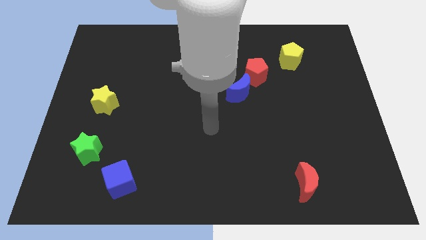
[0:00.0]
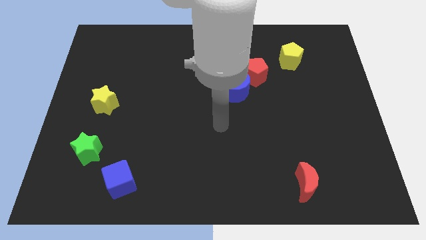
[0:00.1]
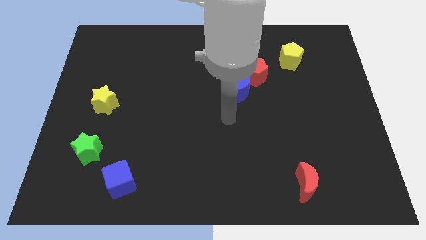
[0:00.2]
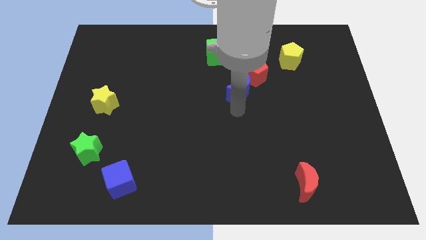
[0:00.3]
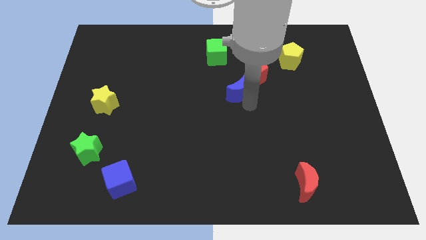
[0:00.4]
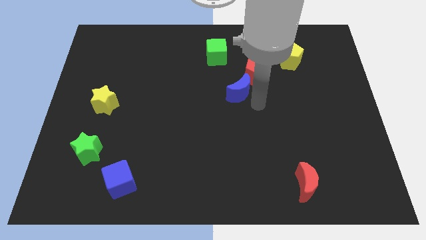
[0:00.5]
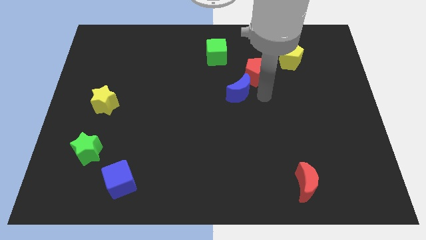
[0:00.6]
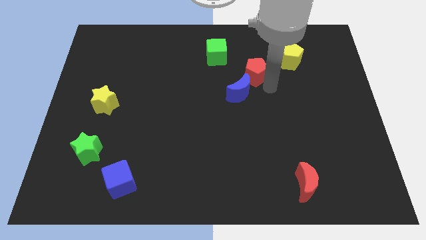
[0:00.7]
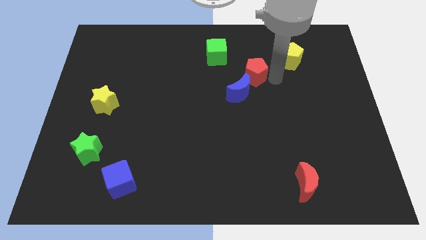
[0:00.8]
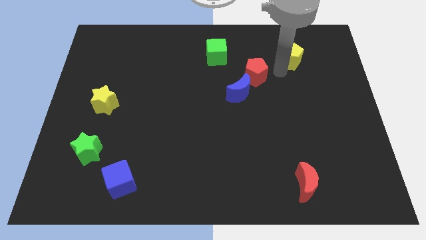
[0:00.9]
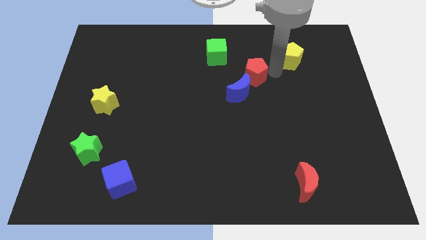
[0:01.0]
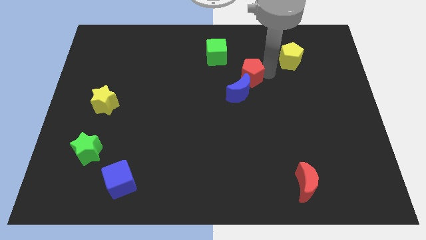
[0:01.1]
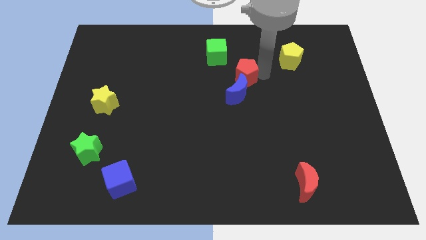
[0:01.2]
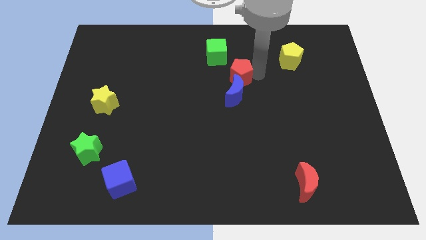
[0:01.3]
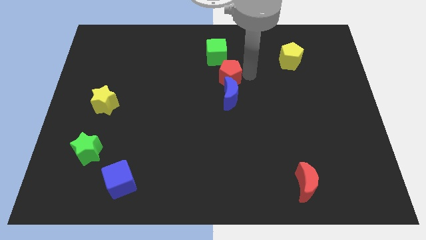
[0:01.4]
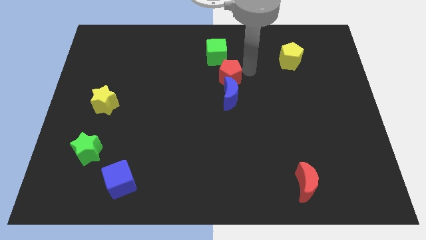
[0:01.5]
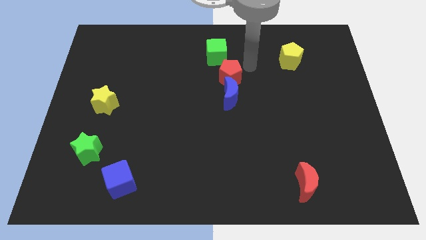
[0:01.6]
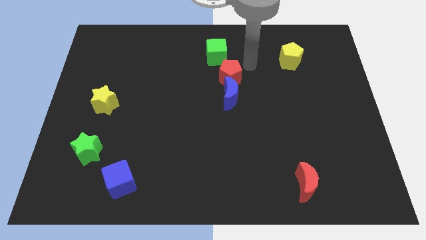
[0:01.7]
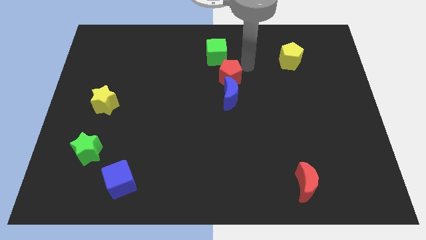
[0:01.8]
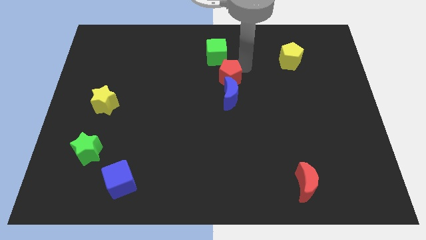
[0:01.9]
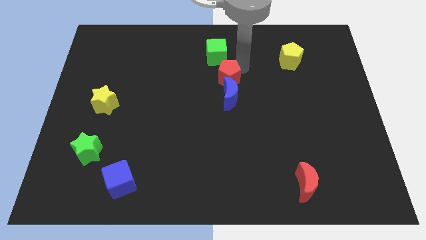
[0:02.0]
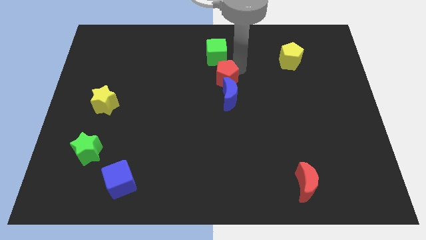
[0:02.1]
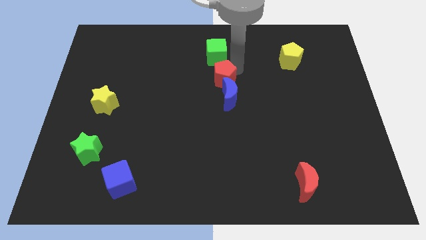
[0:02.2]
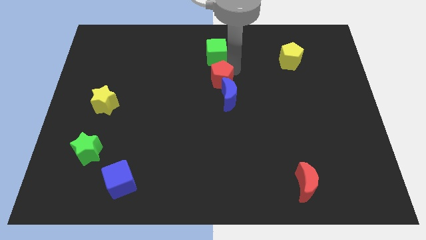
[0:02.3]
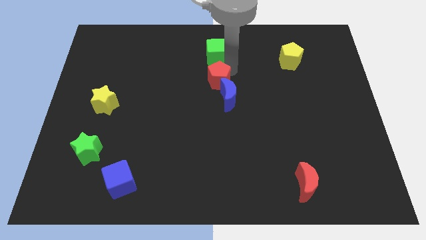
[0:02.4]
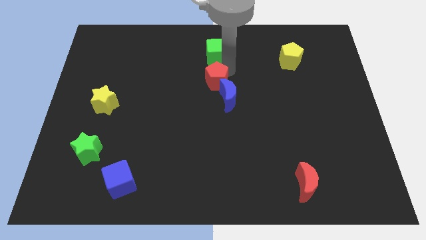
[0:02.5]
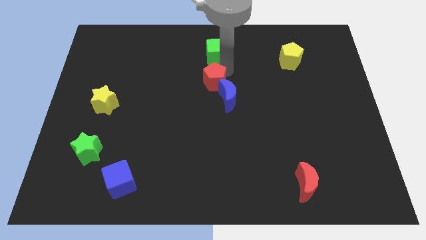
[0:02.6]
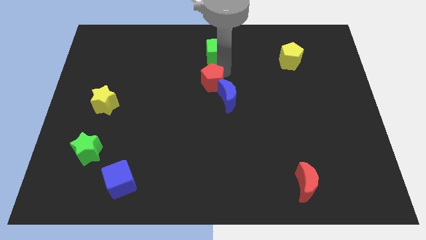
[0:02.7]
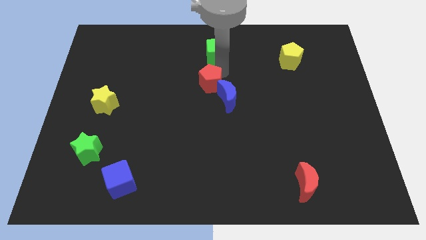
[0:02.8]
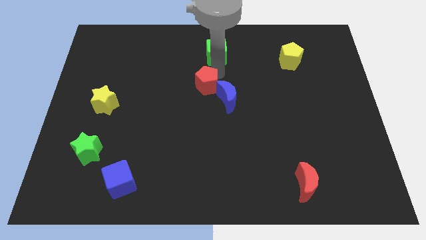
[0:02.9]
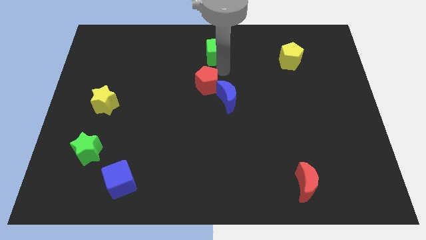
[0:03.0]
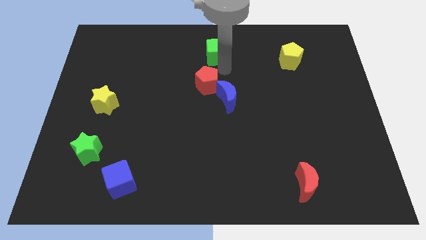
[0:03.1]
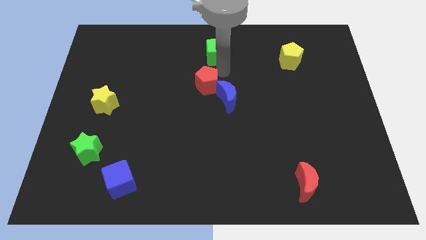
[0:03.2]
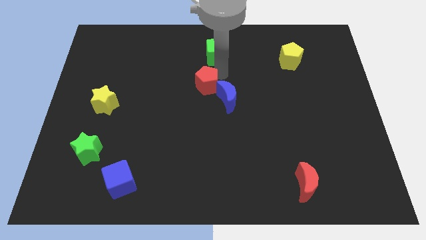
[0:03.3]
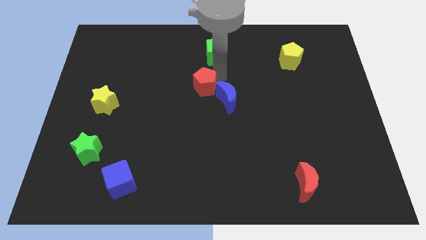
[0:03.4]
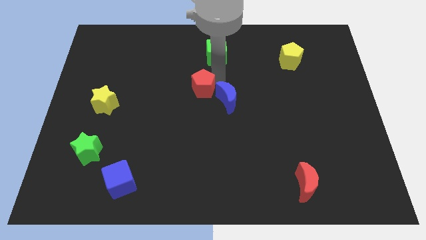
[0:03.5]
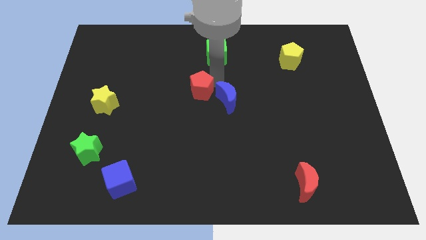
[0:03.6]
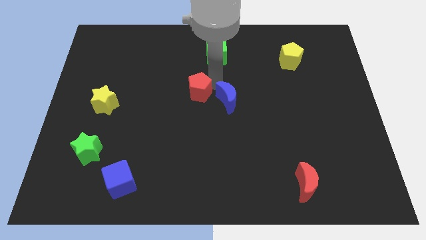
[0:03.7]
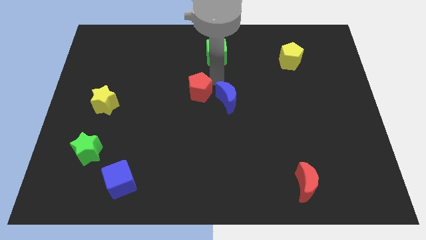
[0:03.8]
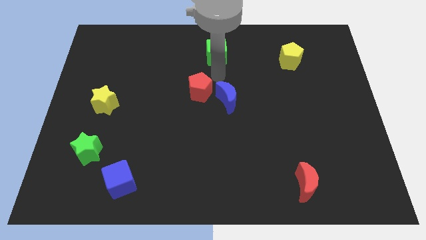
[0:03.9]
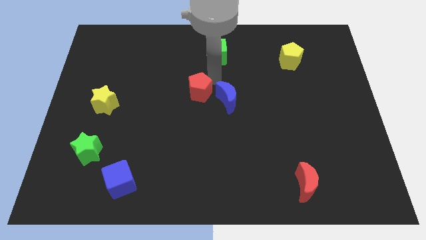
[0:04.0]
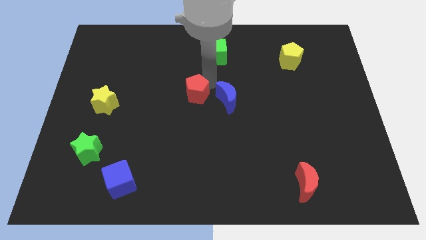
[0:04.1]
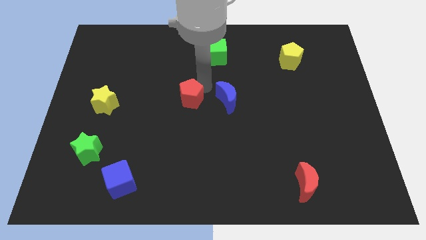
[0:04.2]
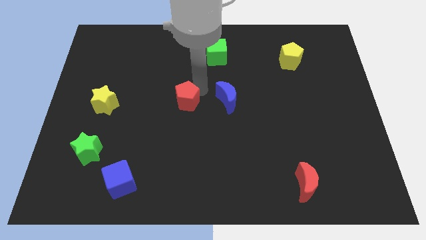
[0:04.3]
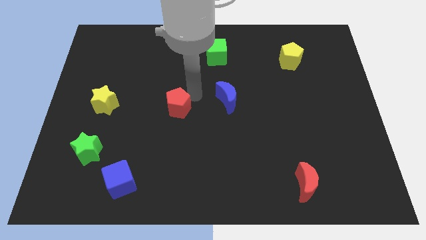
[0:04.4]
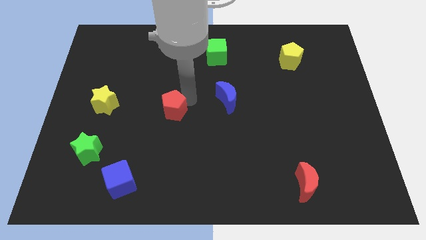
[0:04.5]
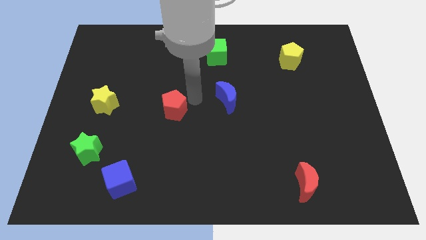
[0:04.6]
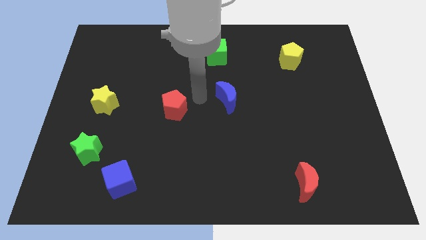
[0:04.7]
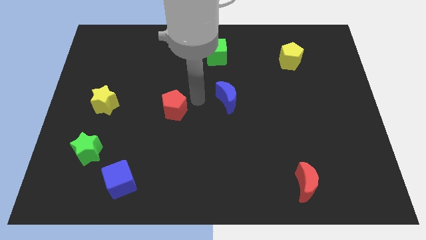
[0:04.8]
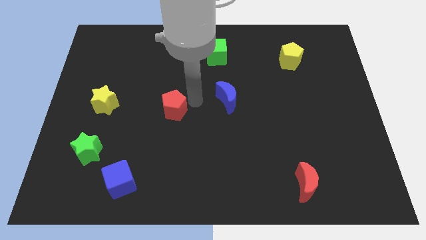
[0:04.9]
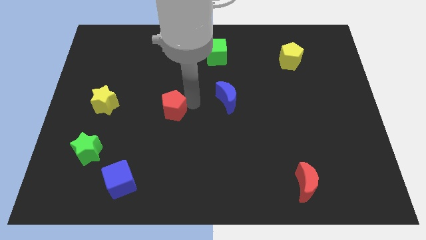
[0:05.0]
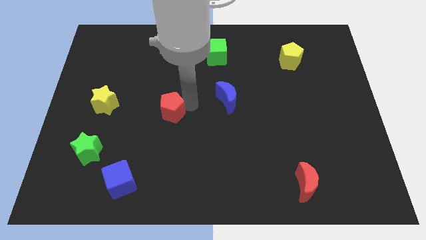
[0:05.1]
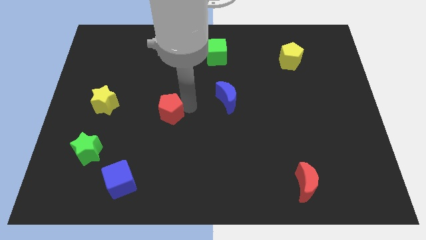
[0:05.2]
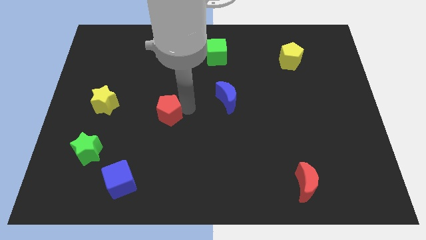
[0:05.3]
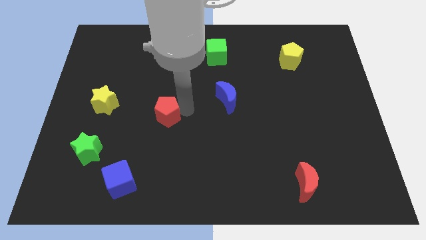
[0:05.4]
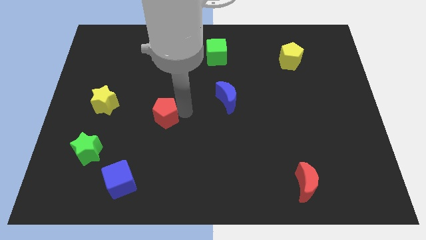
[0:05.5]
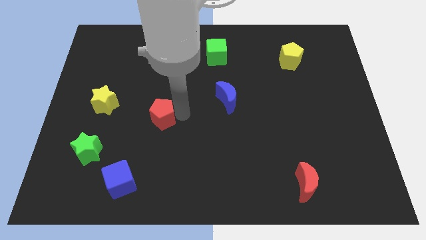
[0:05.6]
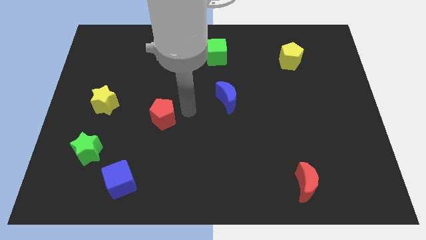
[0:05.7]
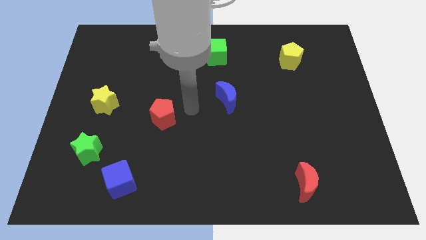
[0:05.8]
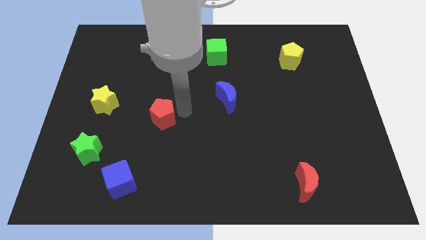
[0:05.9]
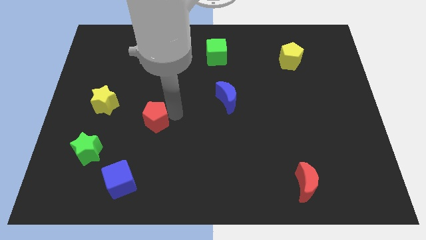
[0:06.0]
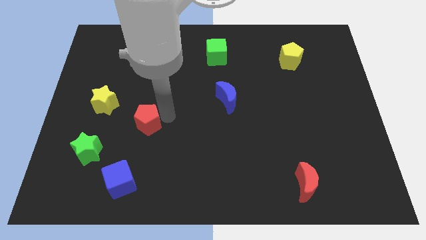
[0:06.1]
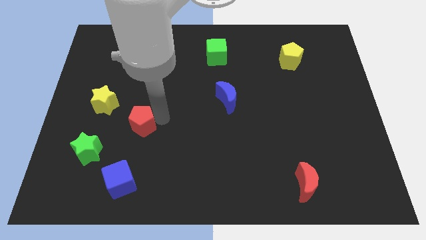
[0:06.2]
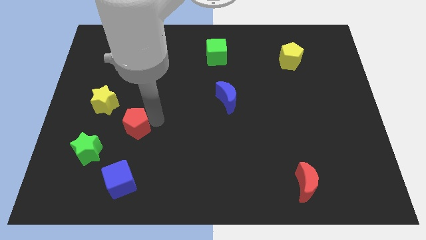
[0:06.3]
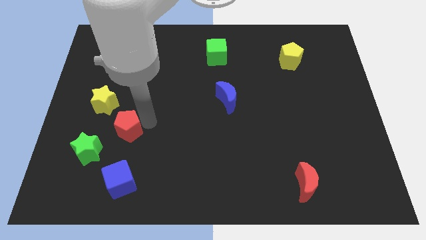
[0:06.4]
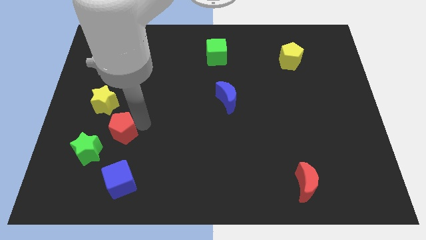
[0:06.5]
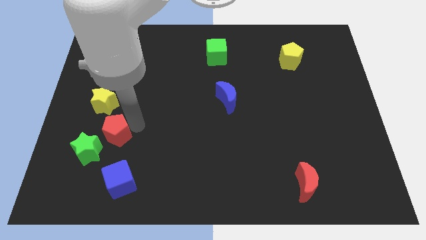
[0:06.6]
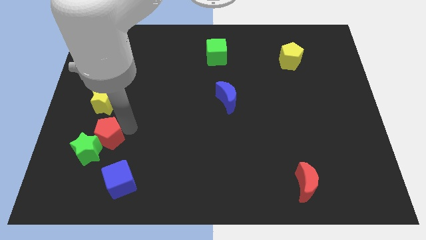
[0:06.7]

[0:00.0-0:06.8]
push the red pentagon close to the green star
